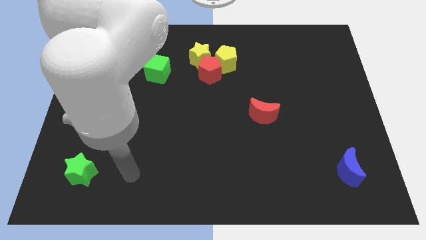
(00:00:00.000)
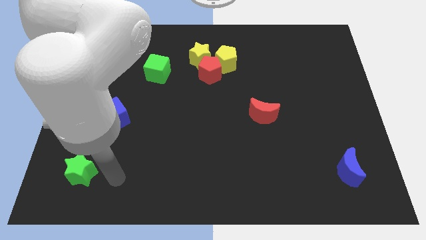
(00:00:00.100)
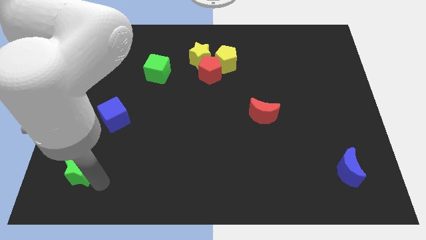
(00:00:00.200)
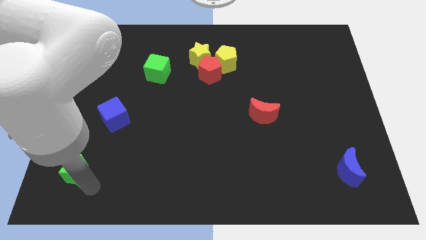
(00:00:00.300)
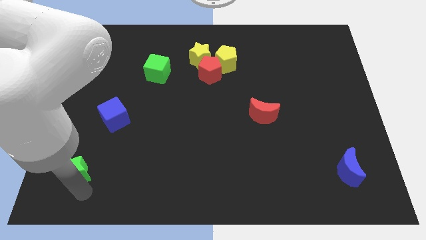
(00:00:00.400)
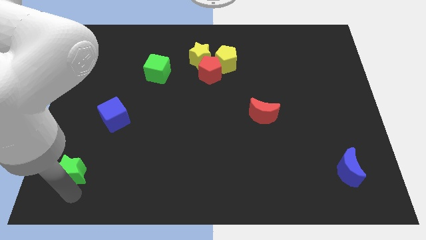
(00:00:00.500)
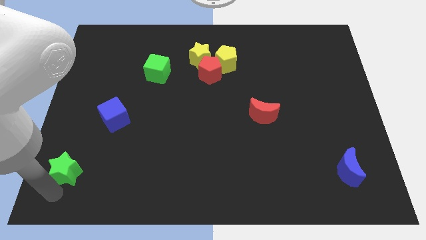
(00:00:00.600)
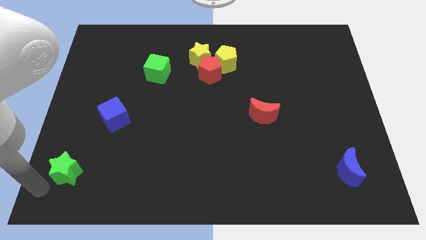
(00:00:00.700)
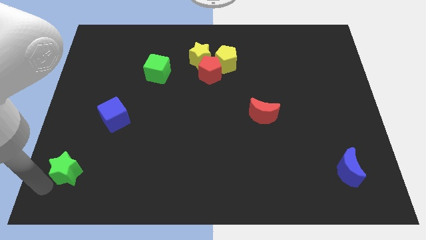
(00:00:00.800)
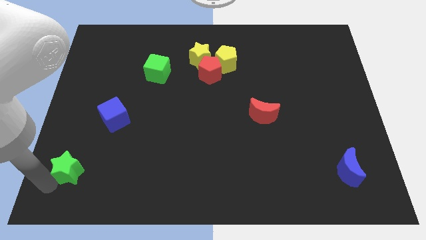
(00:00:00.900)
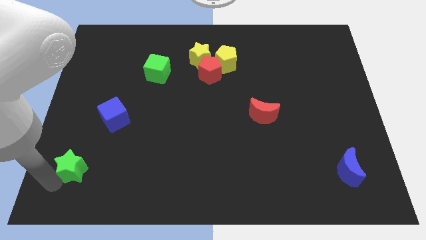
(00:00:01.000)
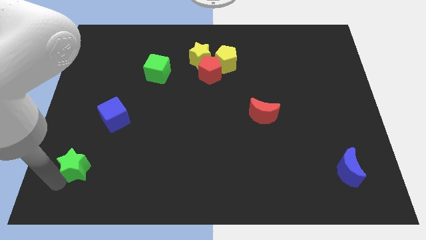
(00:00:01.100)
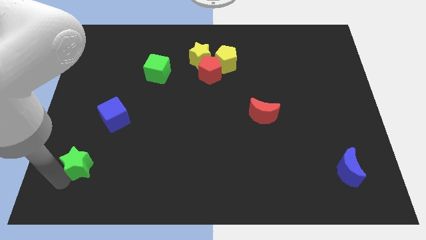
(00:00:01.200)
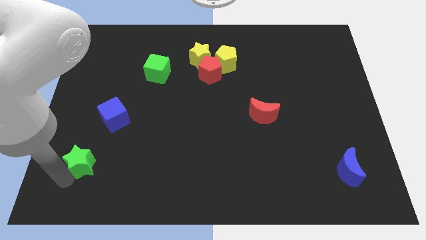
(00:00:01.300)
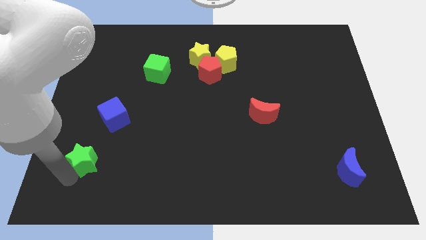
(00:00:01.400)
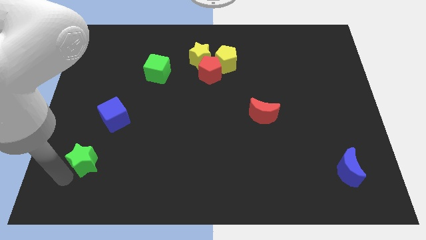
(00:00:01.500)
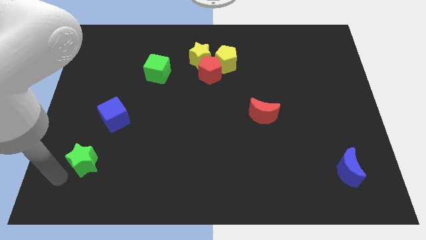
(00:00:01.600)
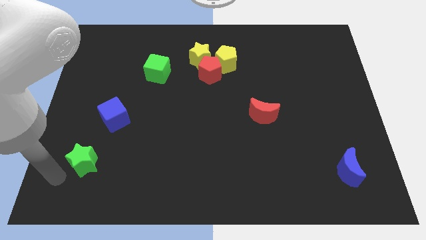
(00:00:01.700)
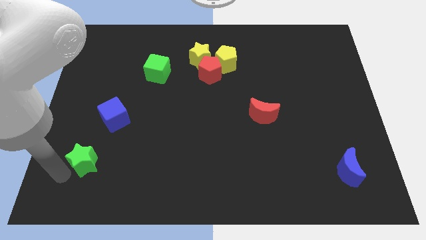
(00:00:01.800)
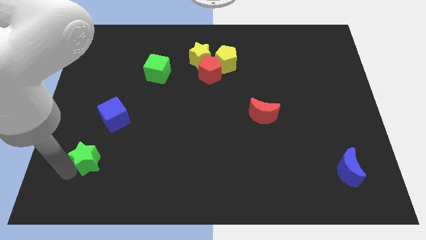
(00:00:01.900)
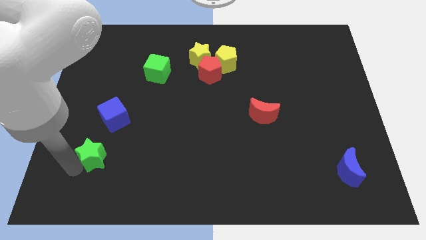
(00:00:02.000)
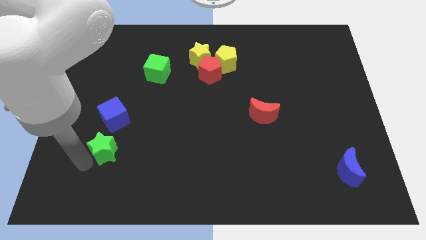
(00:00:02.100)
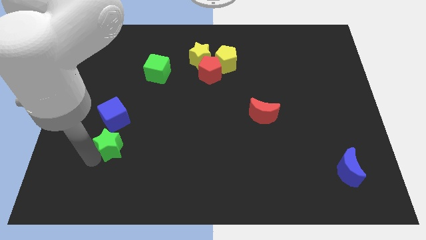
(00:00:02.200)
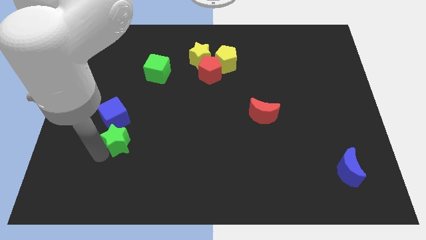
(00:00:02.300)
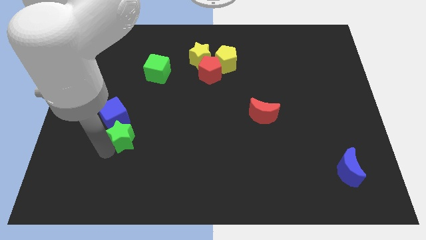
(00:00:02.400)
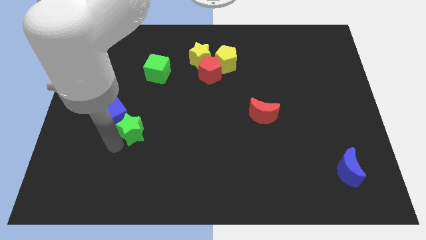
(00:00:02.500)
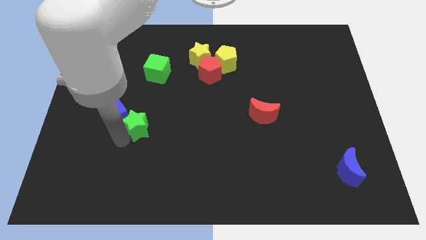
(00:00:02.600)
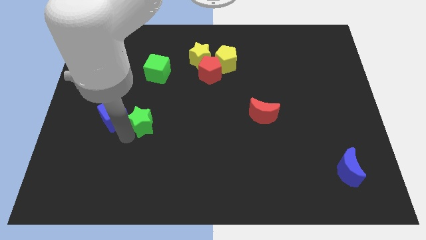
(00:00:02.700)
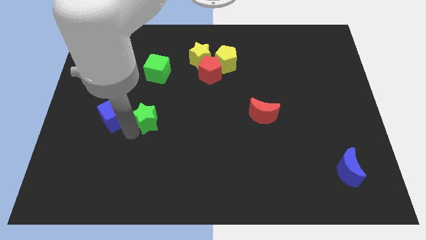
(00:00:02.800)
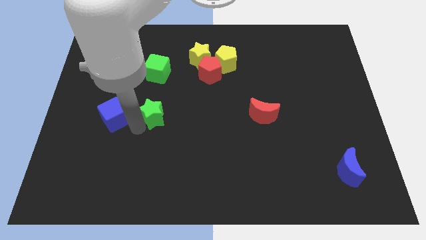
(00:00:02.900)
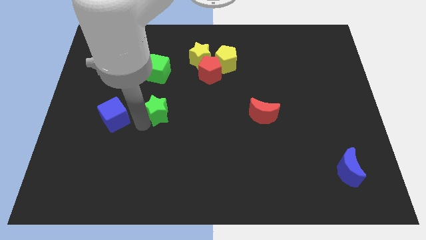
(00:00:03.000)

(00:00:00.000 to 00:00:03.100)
slide the green star diagonally up and to the right

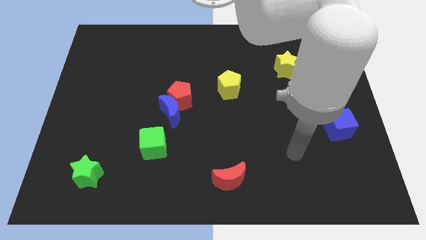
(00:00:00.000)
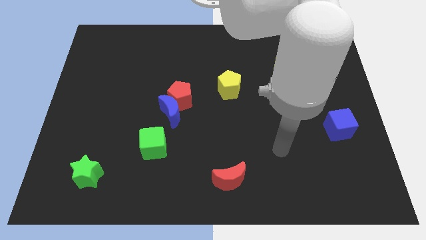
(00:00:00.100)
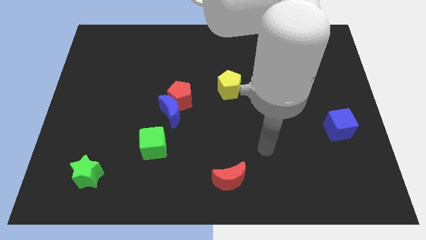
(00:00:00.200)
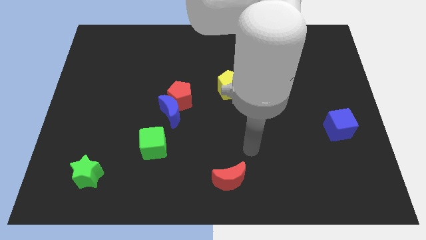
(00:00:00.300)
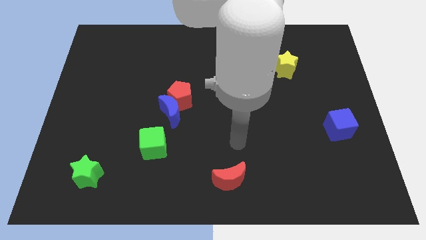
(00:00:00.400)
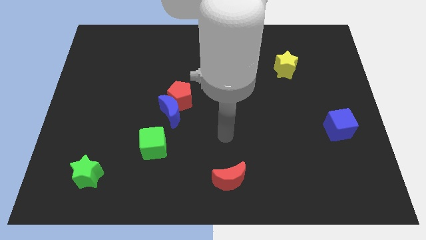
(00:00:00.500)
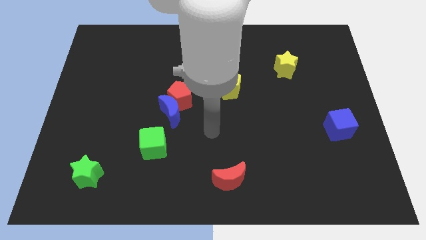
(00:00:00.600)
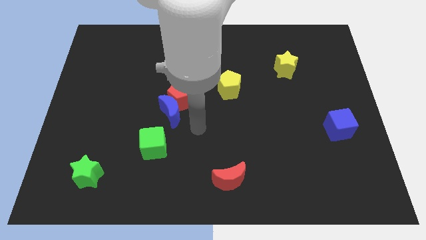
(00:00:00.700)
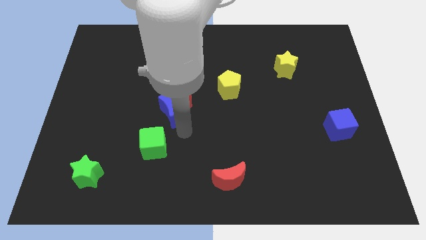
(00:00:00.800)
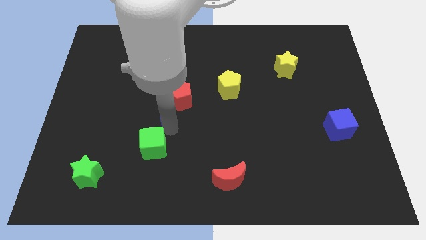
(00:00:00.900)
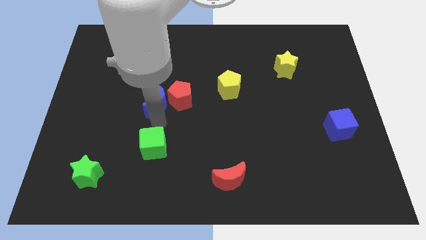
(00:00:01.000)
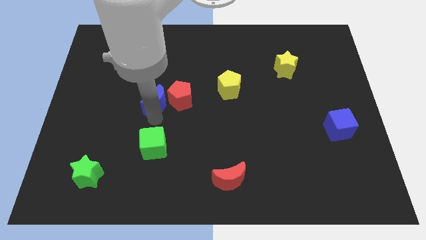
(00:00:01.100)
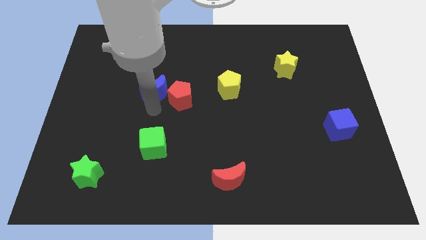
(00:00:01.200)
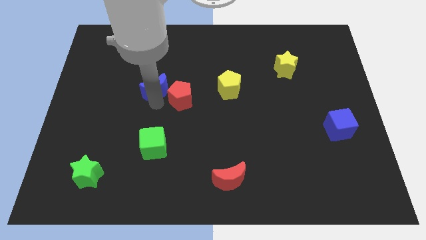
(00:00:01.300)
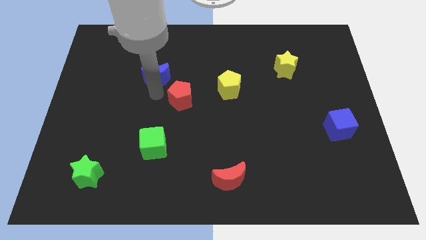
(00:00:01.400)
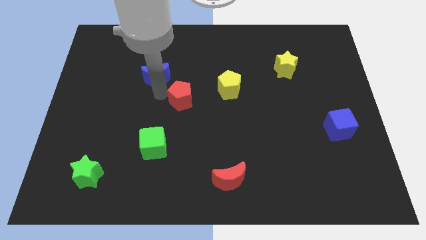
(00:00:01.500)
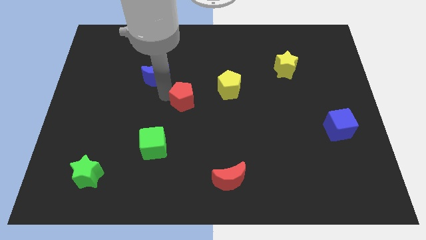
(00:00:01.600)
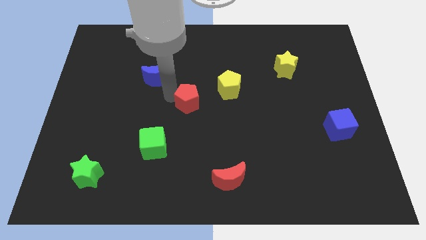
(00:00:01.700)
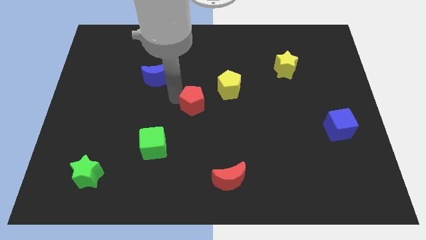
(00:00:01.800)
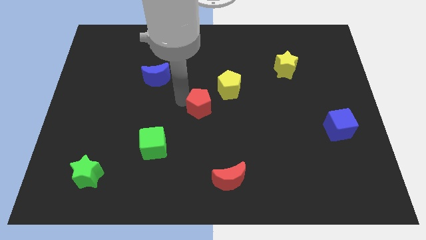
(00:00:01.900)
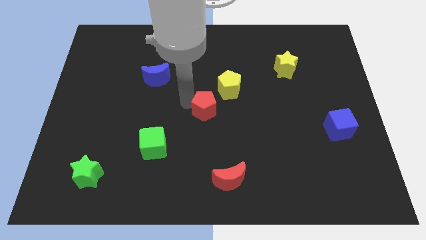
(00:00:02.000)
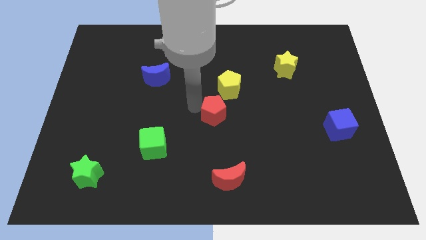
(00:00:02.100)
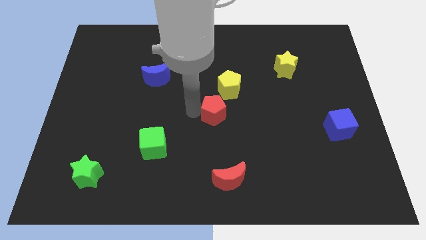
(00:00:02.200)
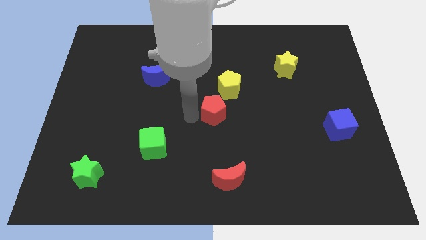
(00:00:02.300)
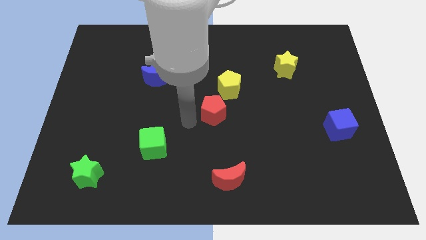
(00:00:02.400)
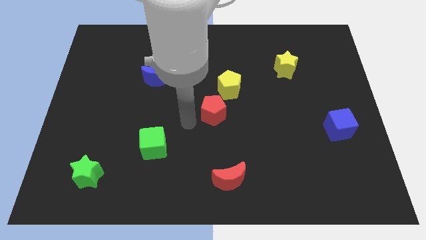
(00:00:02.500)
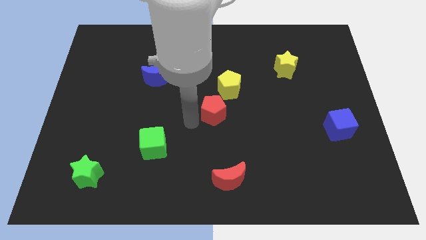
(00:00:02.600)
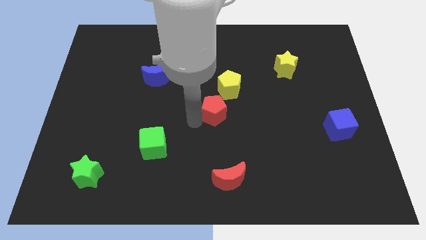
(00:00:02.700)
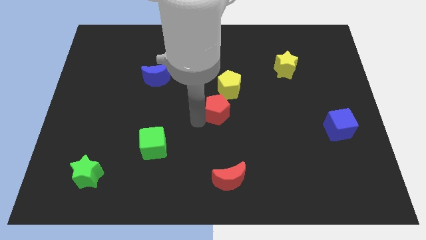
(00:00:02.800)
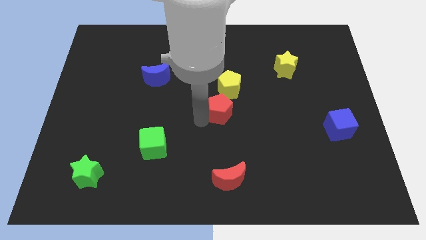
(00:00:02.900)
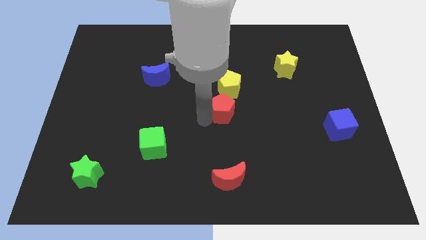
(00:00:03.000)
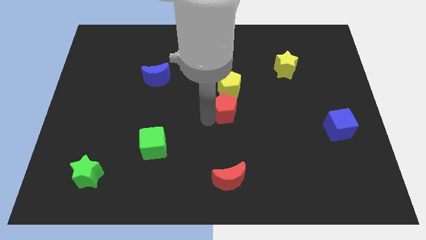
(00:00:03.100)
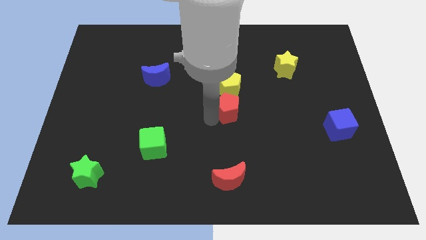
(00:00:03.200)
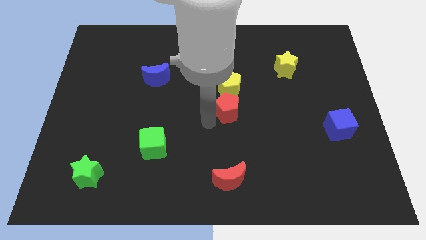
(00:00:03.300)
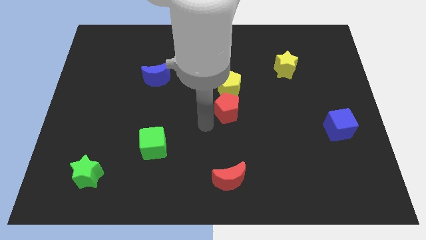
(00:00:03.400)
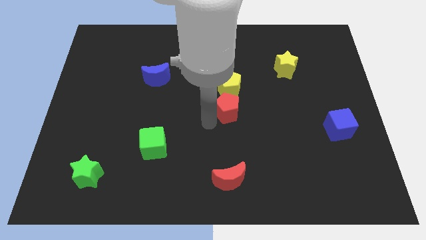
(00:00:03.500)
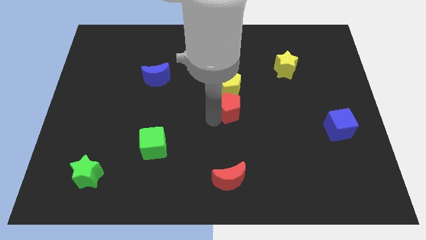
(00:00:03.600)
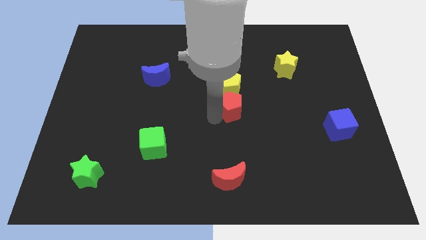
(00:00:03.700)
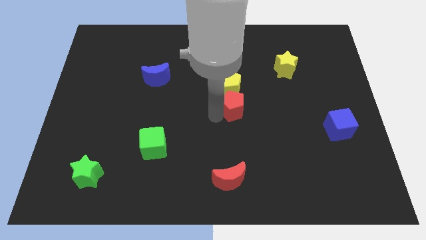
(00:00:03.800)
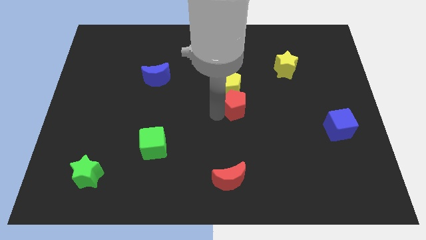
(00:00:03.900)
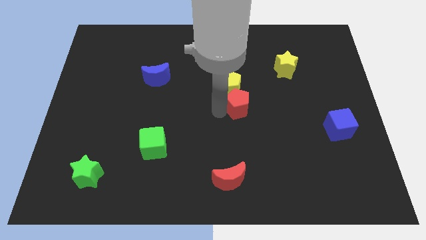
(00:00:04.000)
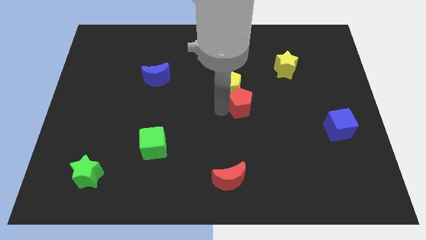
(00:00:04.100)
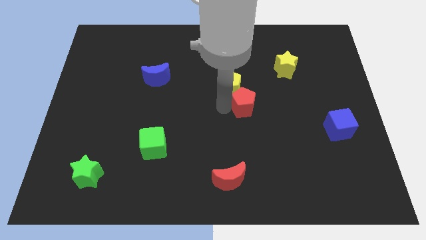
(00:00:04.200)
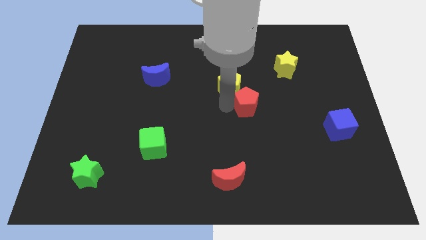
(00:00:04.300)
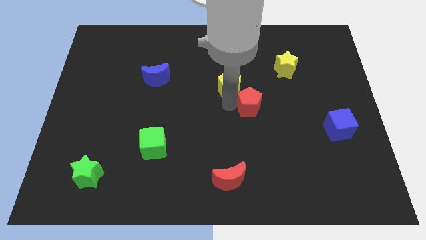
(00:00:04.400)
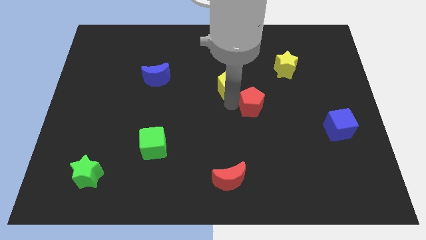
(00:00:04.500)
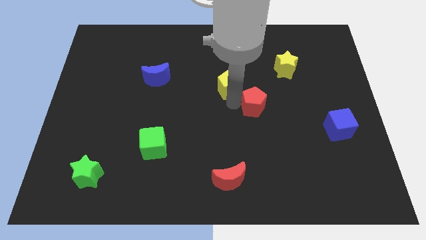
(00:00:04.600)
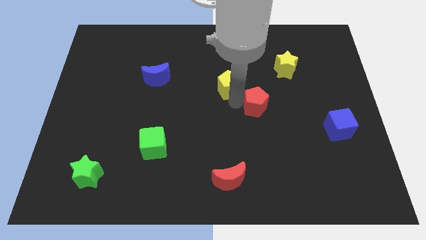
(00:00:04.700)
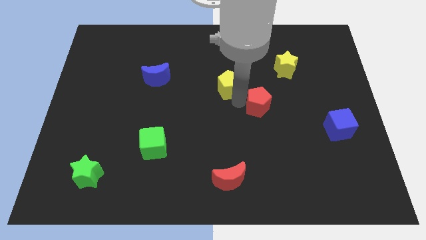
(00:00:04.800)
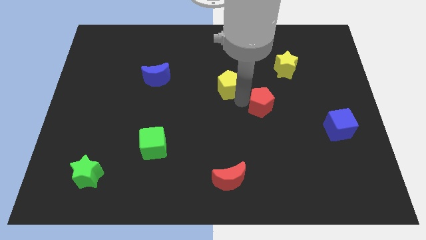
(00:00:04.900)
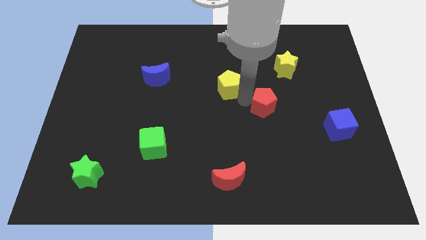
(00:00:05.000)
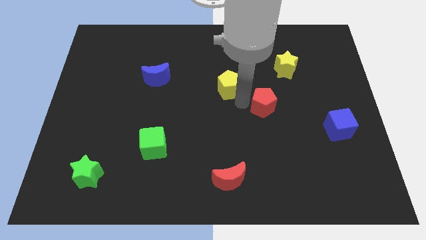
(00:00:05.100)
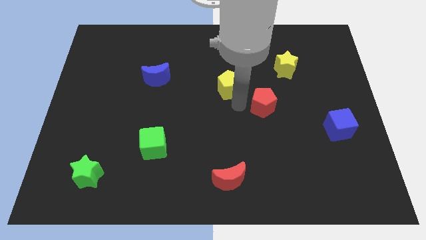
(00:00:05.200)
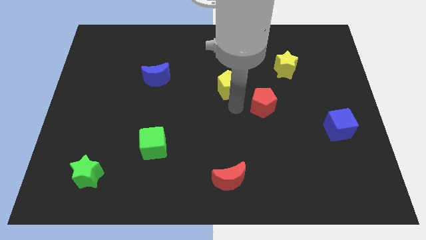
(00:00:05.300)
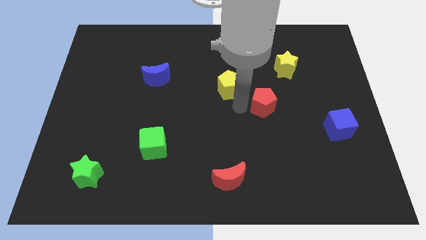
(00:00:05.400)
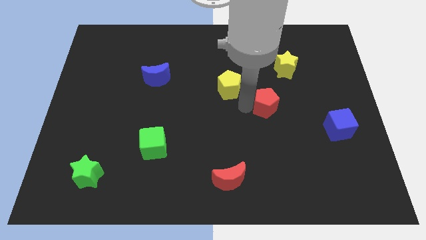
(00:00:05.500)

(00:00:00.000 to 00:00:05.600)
push the red pentagon to the right
